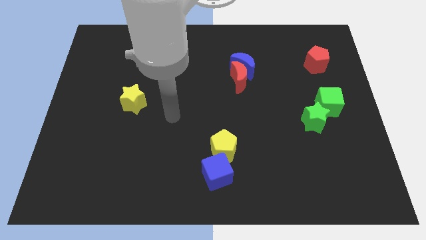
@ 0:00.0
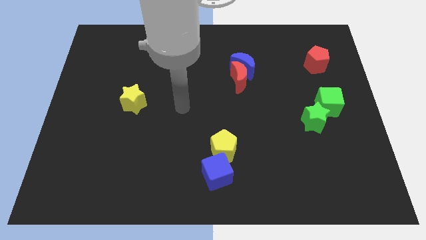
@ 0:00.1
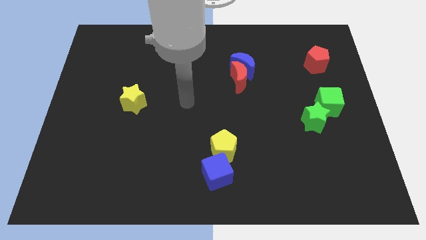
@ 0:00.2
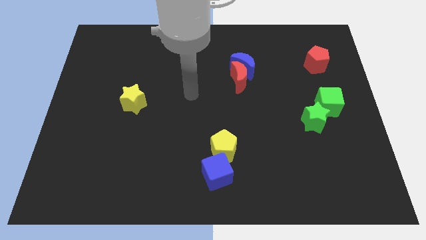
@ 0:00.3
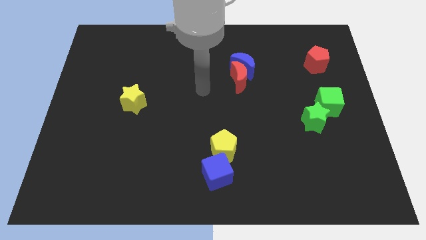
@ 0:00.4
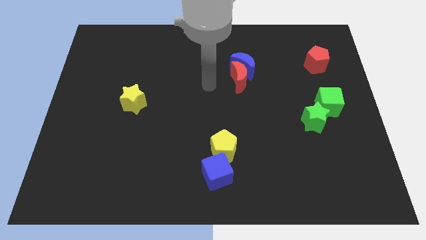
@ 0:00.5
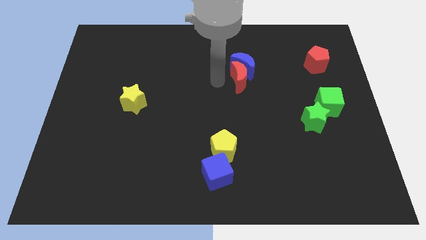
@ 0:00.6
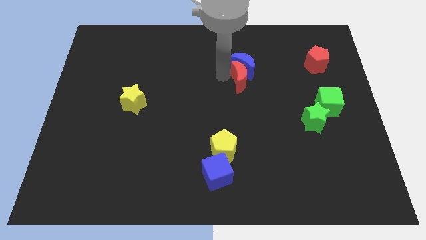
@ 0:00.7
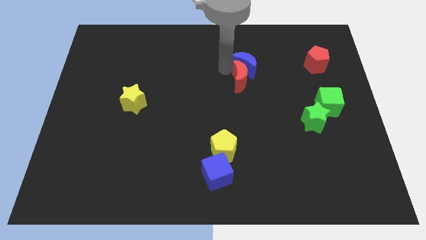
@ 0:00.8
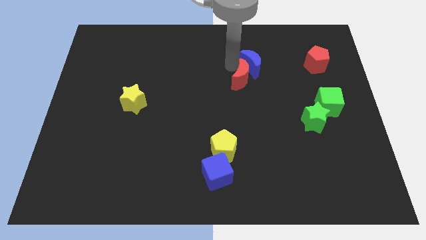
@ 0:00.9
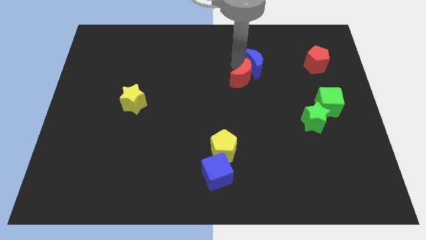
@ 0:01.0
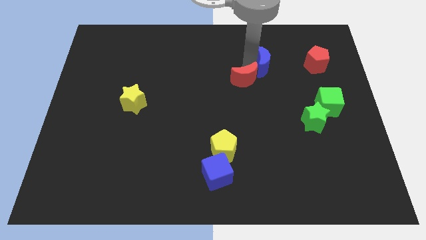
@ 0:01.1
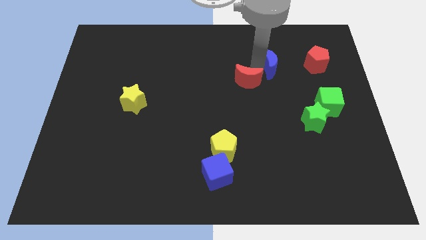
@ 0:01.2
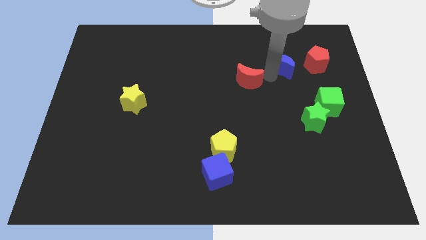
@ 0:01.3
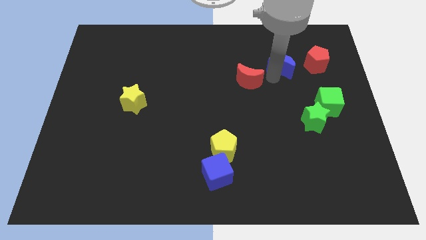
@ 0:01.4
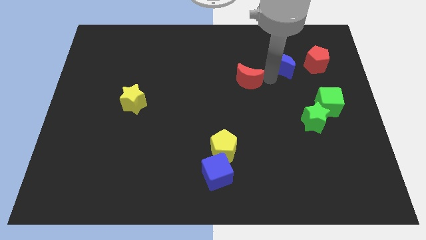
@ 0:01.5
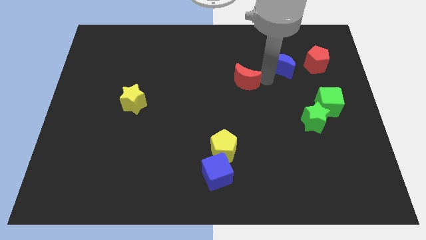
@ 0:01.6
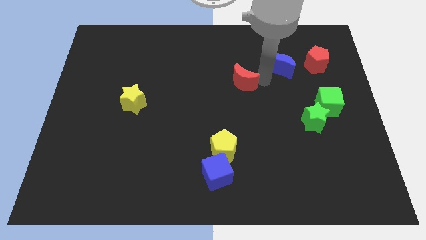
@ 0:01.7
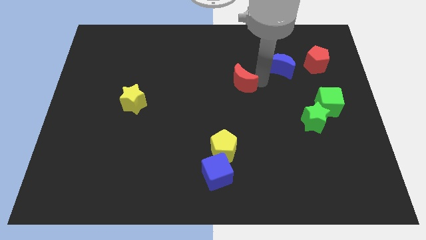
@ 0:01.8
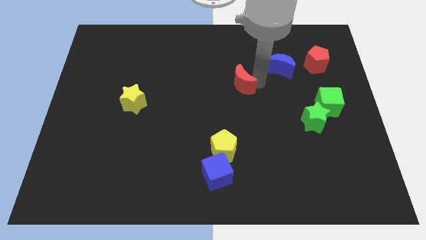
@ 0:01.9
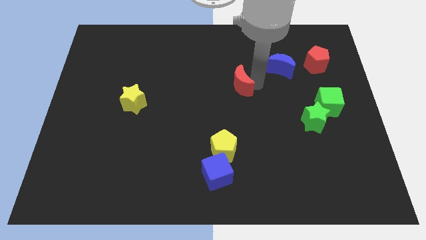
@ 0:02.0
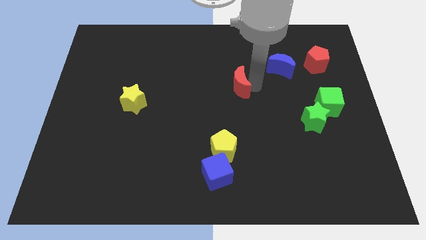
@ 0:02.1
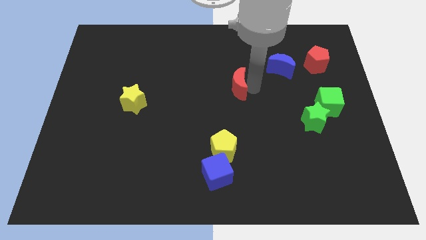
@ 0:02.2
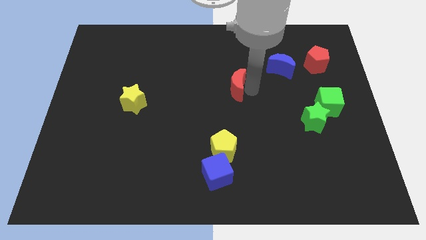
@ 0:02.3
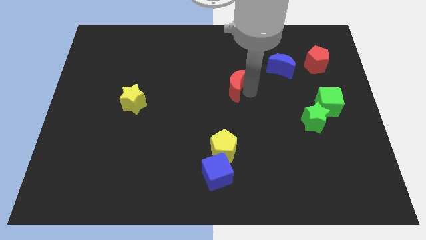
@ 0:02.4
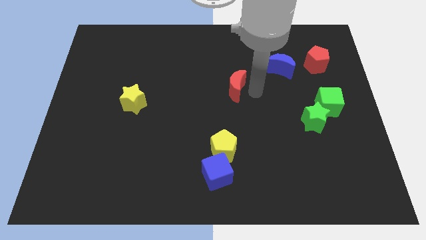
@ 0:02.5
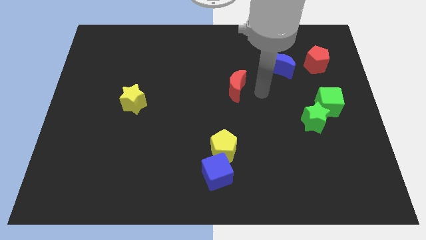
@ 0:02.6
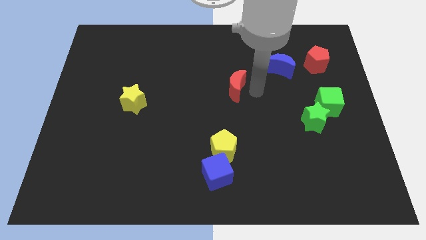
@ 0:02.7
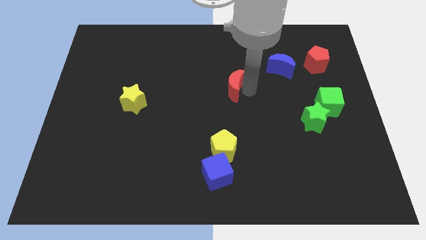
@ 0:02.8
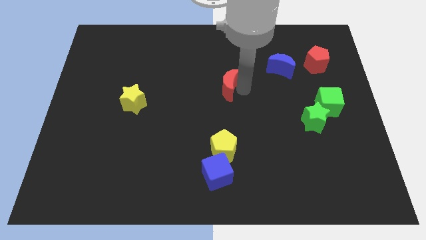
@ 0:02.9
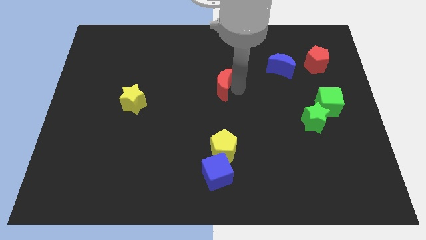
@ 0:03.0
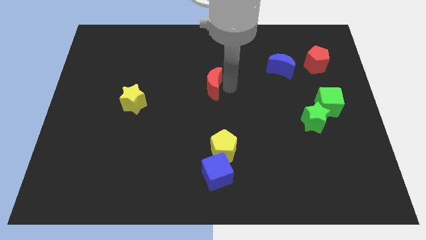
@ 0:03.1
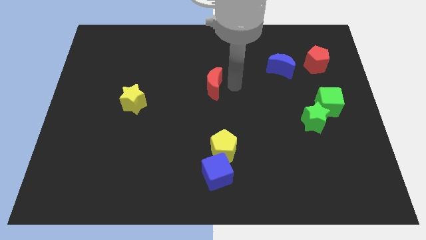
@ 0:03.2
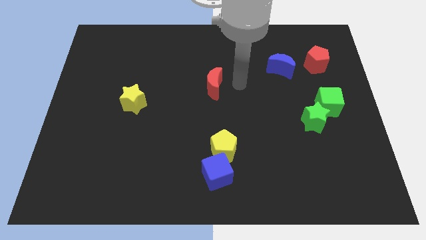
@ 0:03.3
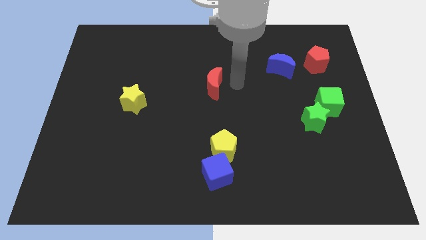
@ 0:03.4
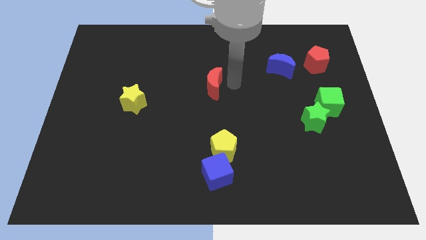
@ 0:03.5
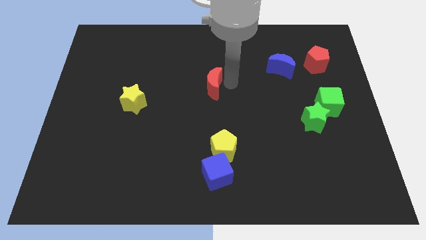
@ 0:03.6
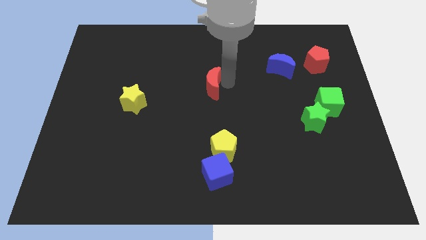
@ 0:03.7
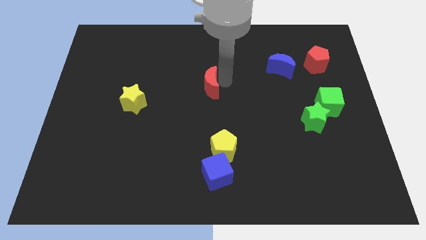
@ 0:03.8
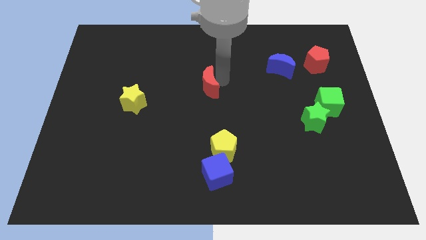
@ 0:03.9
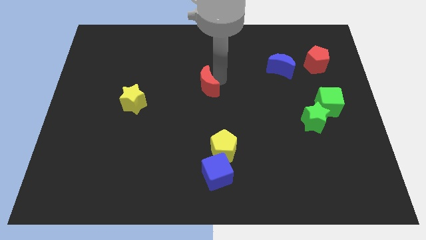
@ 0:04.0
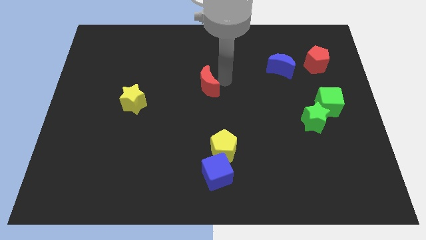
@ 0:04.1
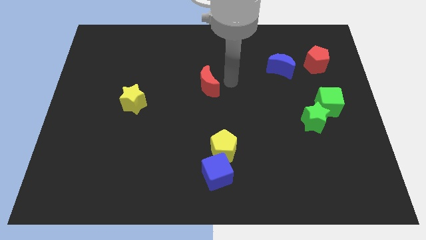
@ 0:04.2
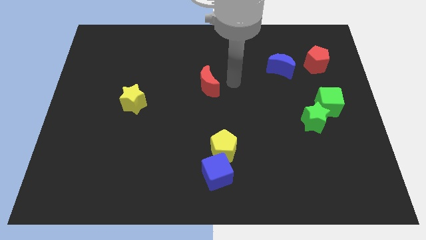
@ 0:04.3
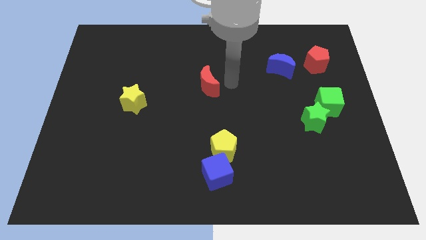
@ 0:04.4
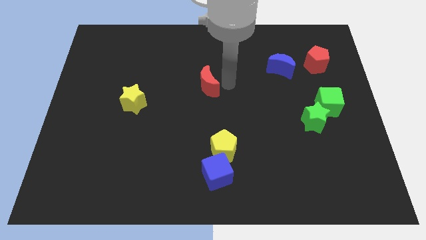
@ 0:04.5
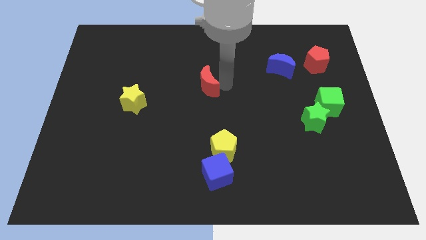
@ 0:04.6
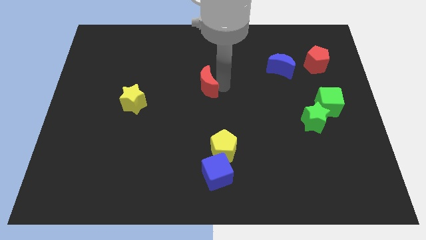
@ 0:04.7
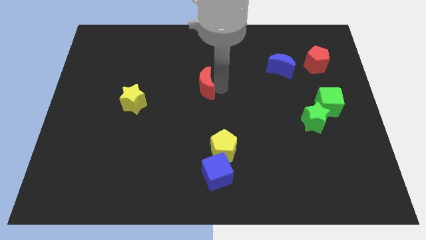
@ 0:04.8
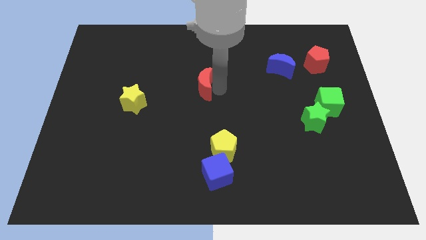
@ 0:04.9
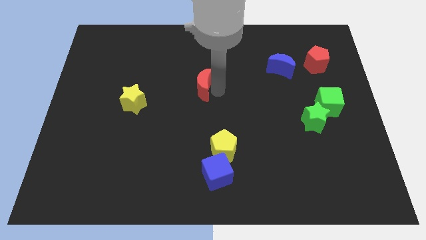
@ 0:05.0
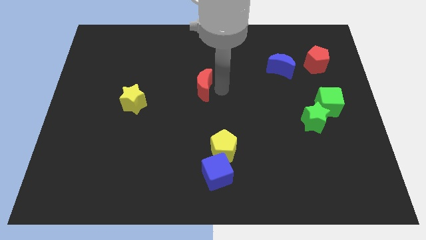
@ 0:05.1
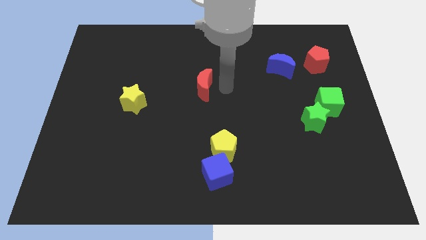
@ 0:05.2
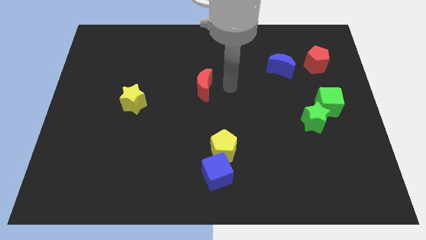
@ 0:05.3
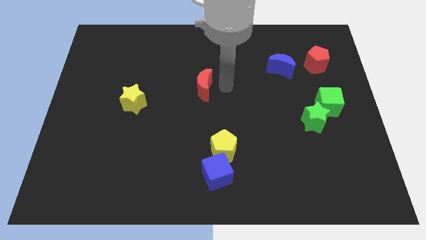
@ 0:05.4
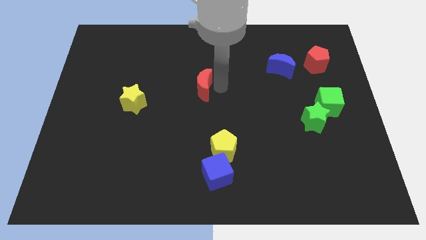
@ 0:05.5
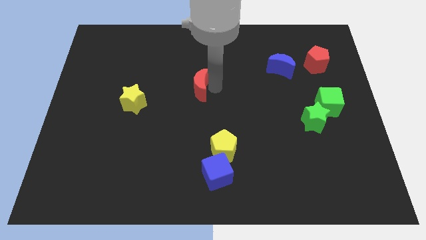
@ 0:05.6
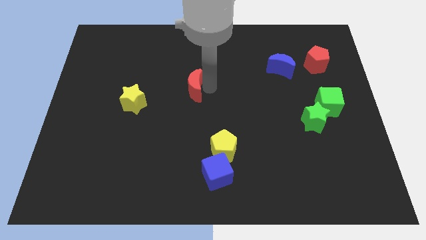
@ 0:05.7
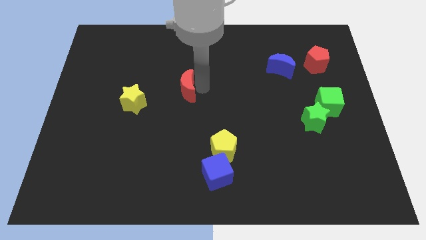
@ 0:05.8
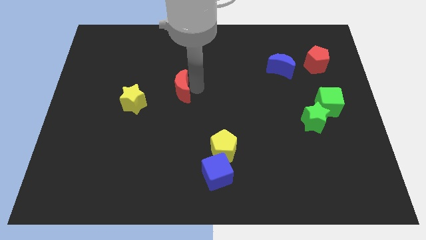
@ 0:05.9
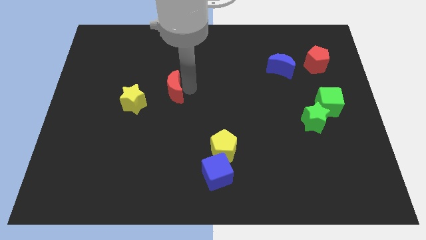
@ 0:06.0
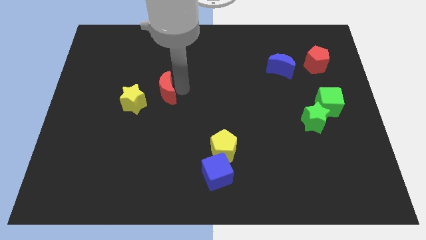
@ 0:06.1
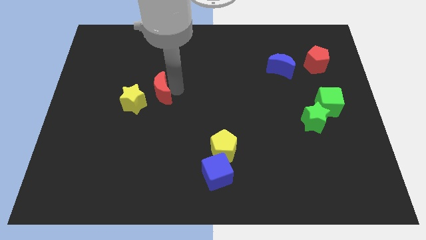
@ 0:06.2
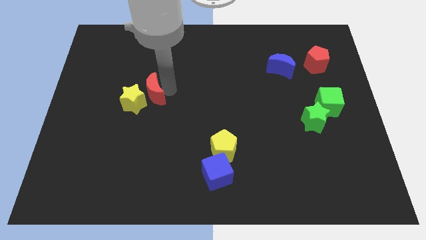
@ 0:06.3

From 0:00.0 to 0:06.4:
move the red moon to the yellow star

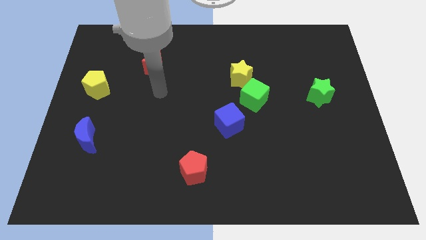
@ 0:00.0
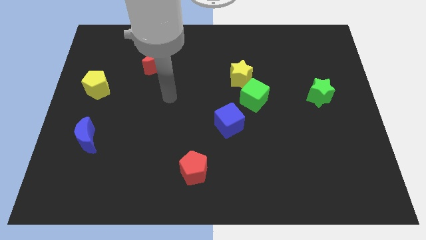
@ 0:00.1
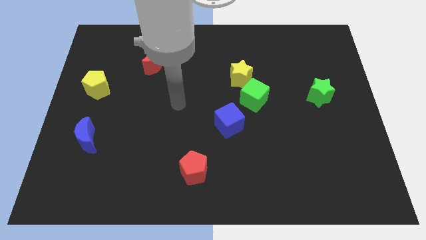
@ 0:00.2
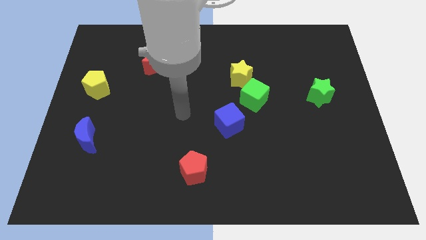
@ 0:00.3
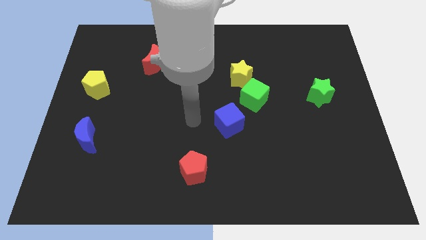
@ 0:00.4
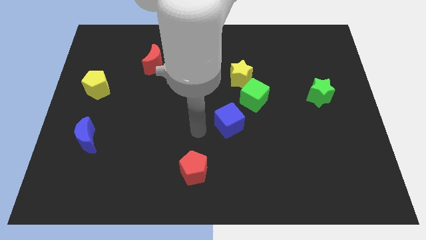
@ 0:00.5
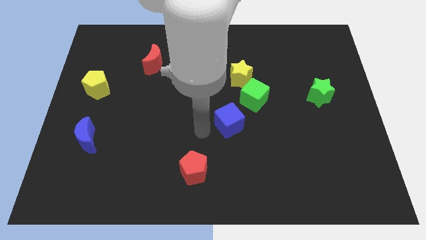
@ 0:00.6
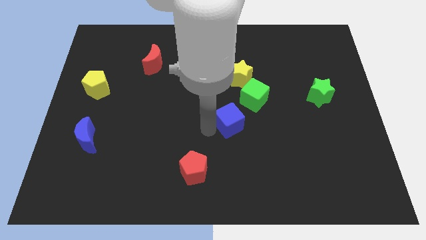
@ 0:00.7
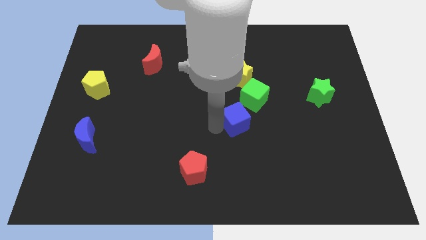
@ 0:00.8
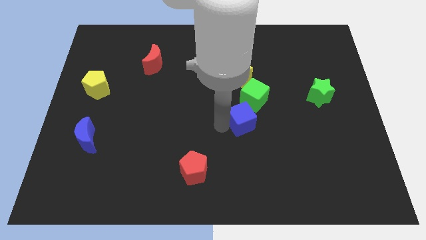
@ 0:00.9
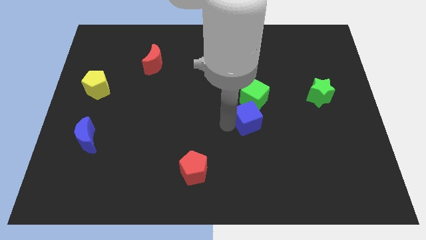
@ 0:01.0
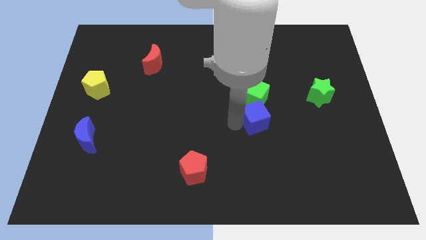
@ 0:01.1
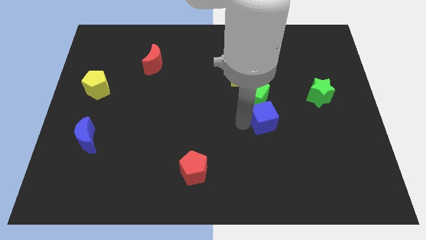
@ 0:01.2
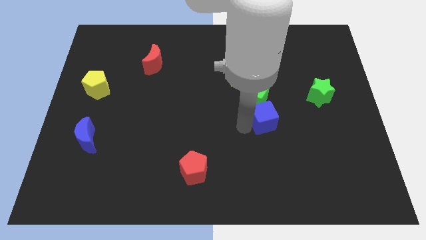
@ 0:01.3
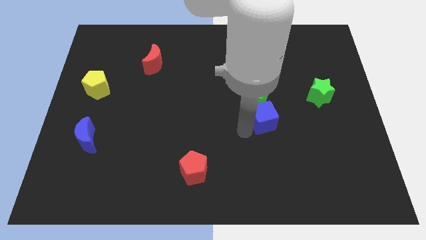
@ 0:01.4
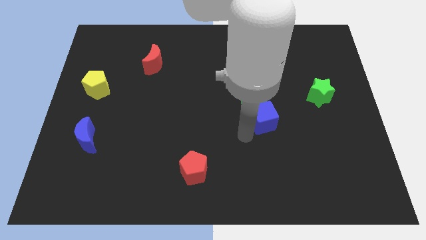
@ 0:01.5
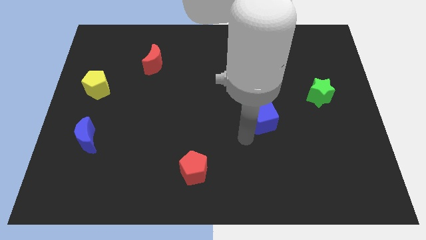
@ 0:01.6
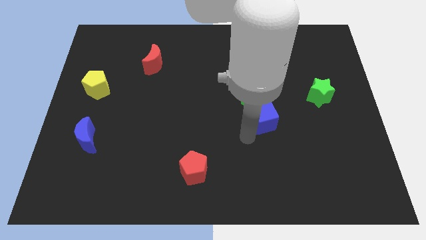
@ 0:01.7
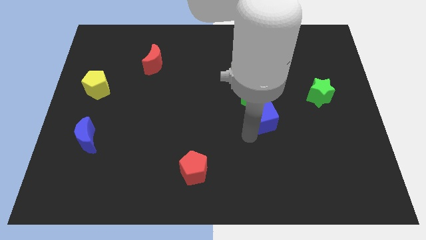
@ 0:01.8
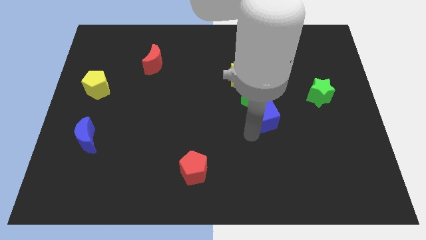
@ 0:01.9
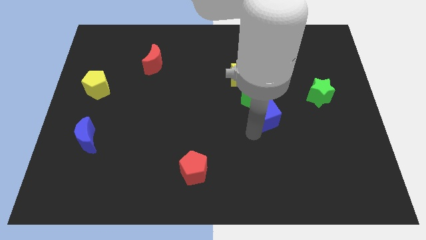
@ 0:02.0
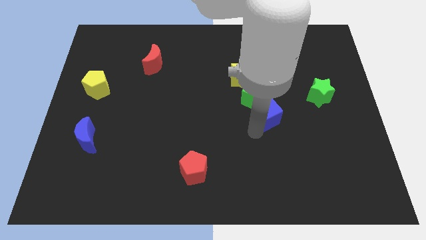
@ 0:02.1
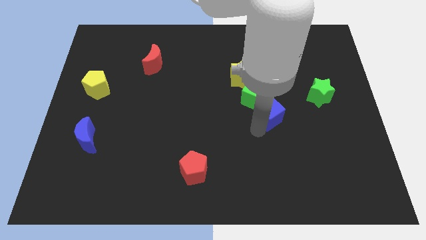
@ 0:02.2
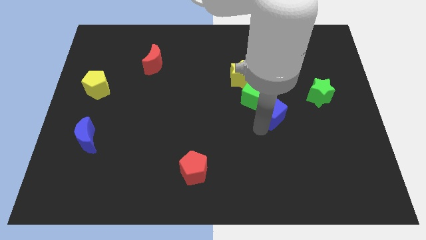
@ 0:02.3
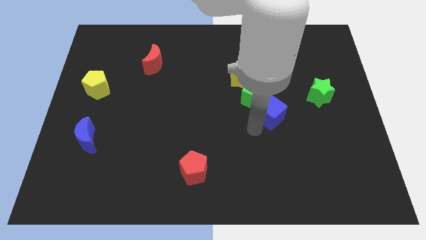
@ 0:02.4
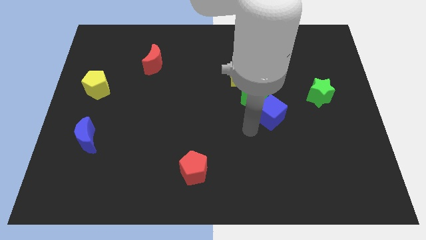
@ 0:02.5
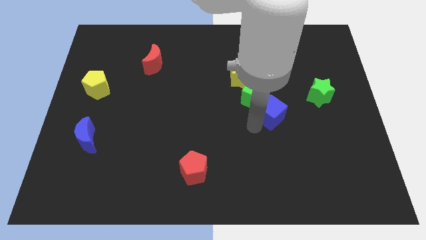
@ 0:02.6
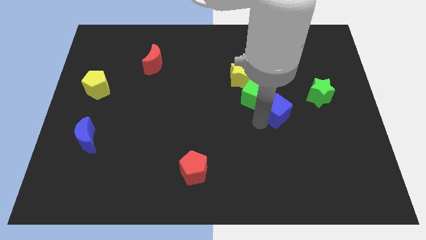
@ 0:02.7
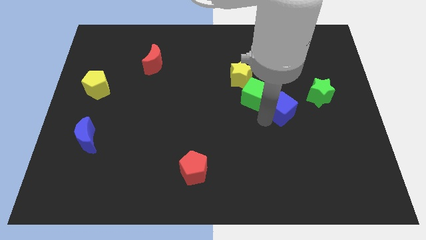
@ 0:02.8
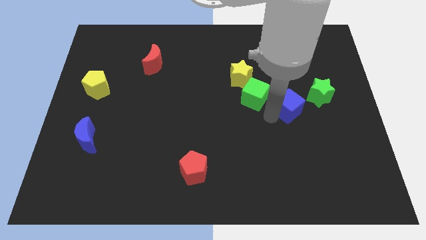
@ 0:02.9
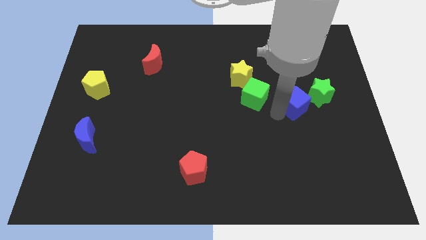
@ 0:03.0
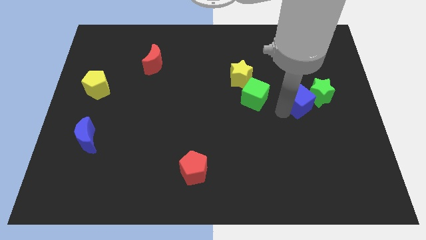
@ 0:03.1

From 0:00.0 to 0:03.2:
slide the blue cube to the green star
